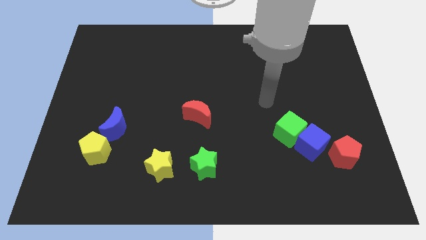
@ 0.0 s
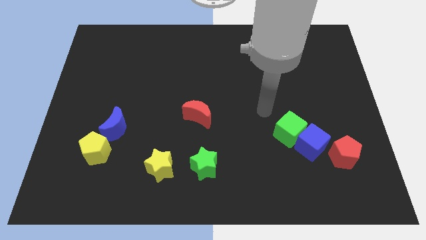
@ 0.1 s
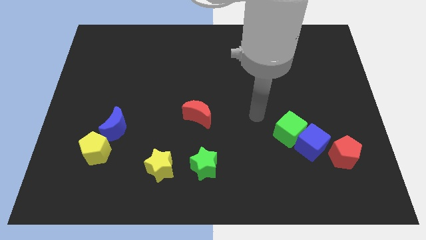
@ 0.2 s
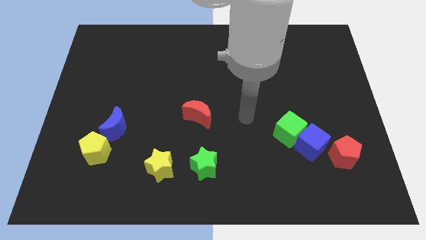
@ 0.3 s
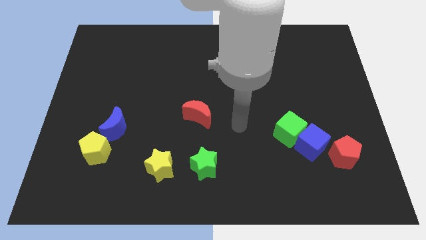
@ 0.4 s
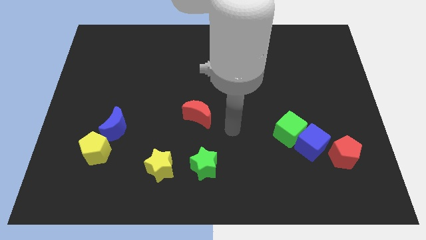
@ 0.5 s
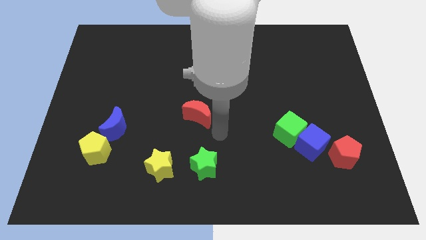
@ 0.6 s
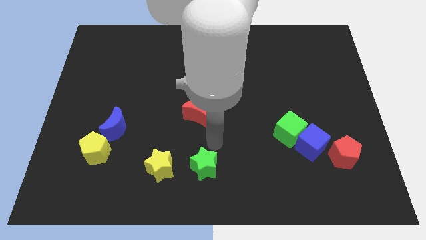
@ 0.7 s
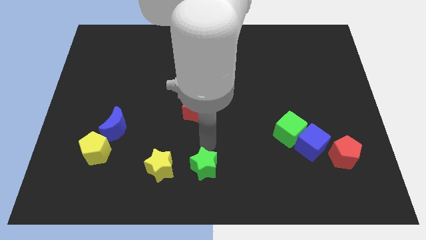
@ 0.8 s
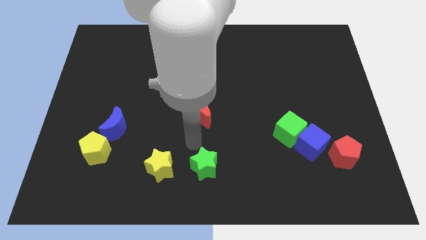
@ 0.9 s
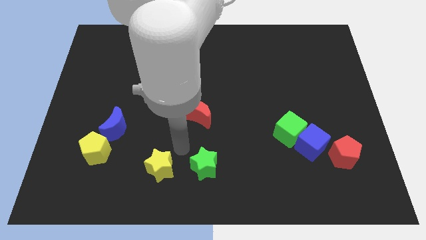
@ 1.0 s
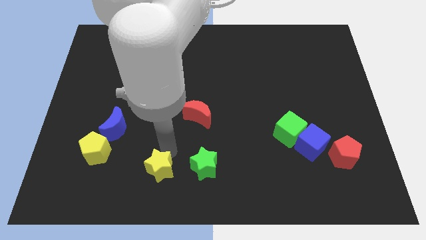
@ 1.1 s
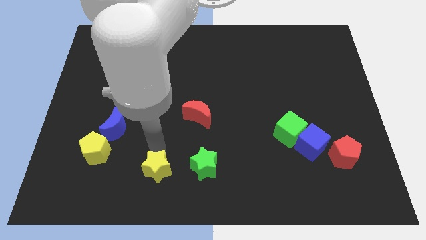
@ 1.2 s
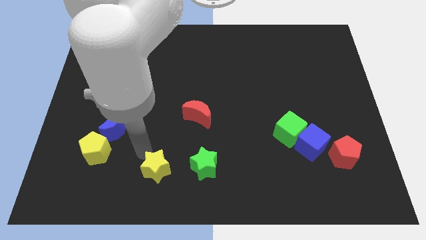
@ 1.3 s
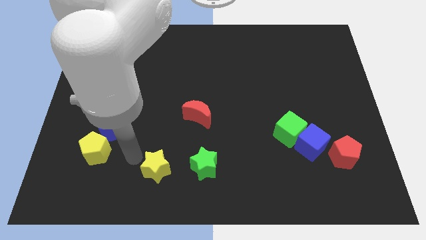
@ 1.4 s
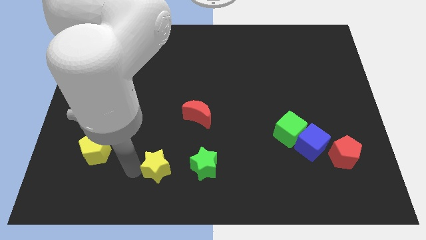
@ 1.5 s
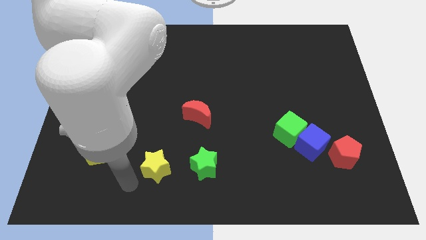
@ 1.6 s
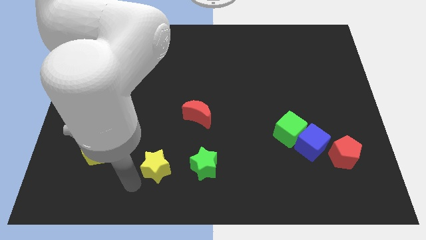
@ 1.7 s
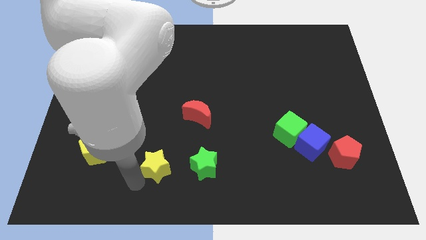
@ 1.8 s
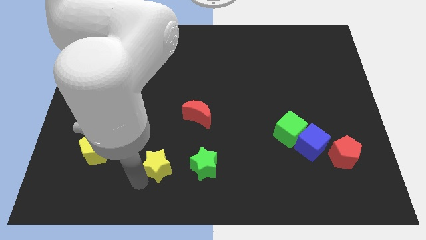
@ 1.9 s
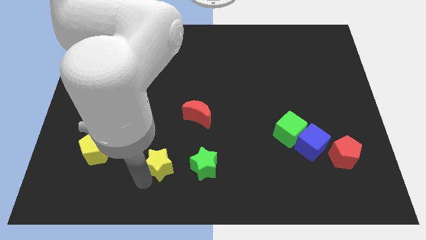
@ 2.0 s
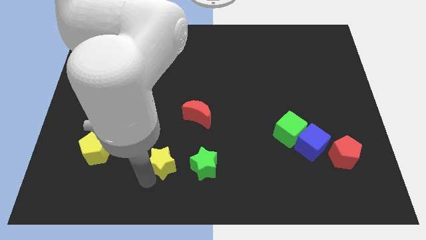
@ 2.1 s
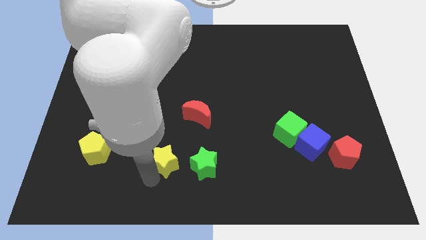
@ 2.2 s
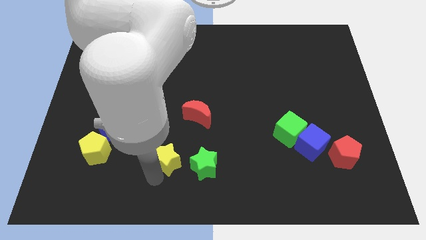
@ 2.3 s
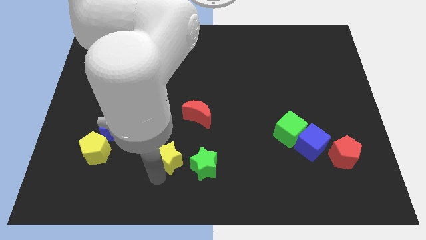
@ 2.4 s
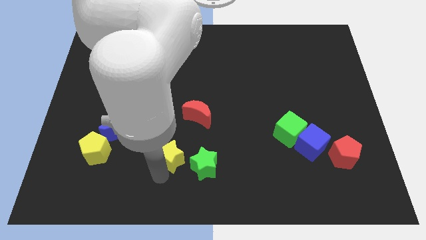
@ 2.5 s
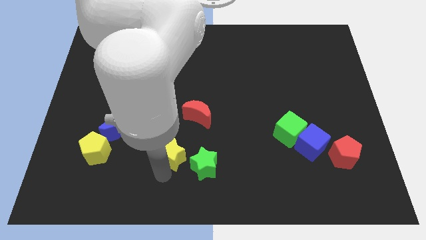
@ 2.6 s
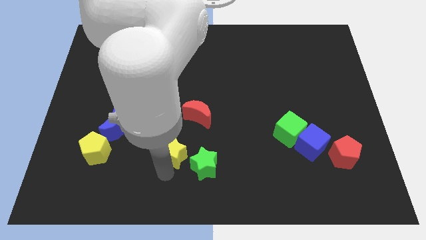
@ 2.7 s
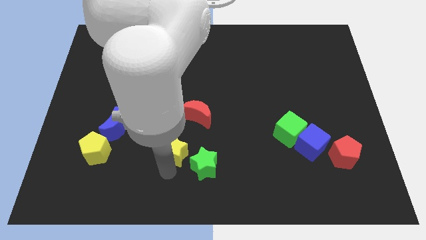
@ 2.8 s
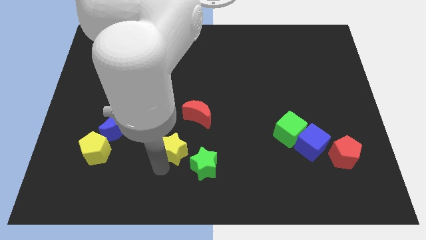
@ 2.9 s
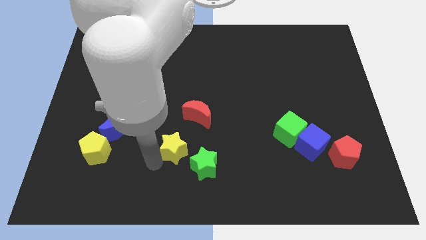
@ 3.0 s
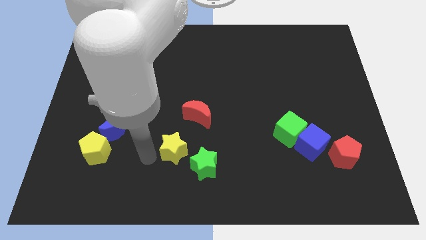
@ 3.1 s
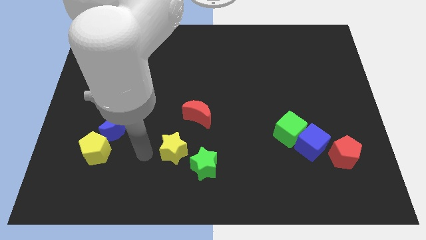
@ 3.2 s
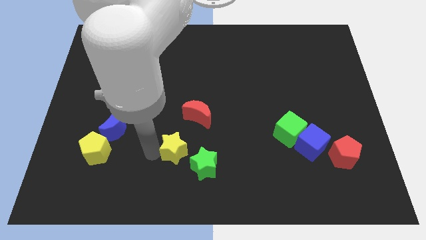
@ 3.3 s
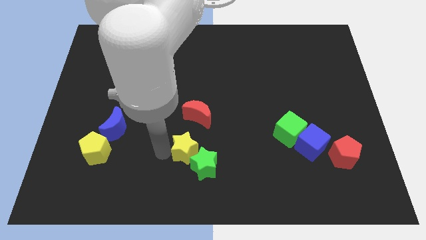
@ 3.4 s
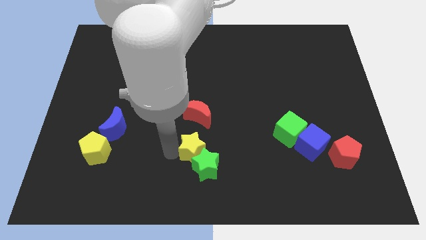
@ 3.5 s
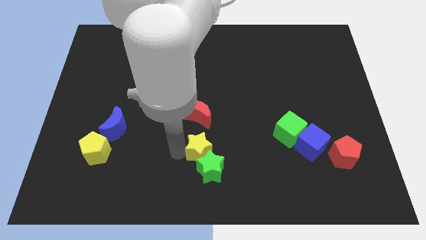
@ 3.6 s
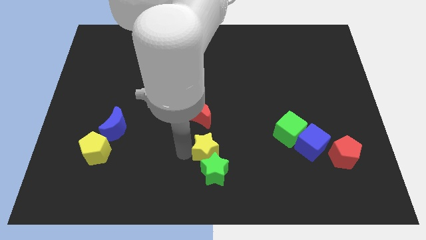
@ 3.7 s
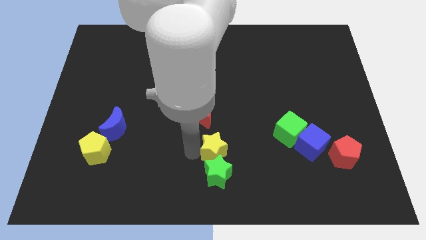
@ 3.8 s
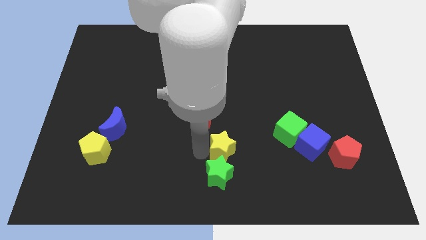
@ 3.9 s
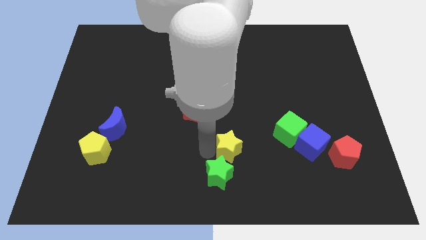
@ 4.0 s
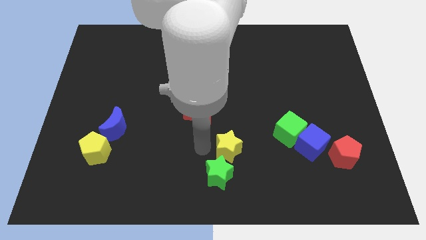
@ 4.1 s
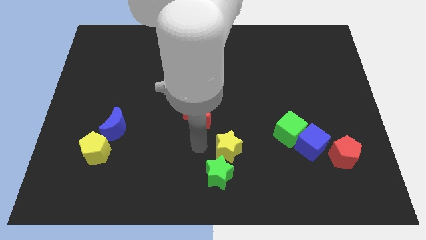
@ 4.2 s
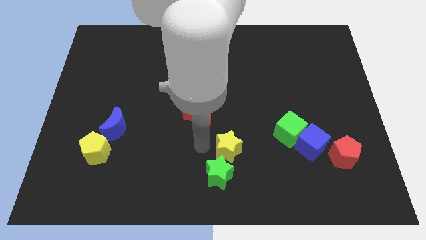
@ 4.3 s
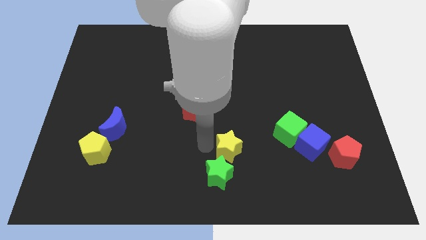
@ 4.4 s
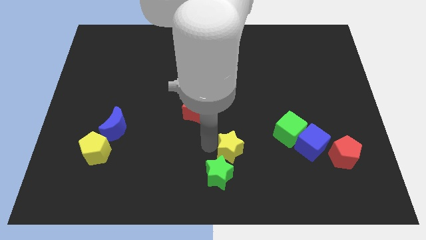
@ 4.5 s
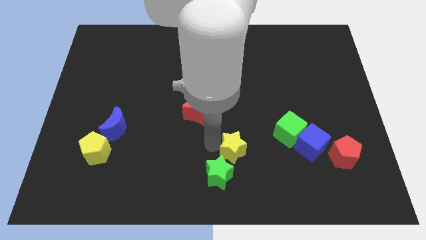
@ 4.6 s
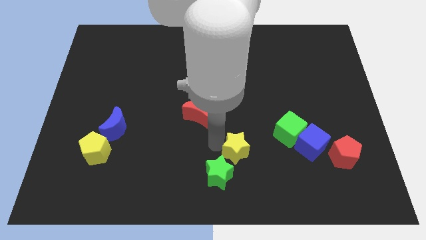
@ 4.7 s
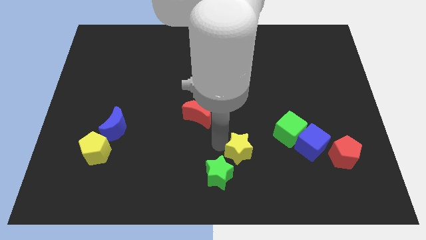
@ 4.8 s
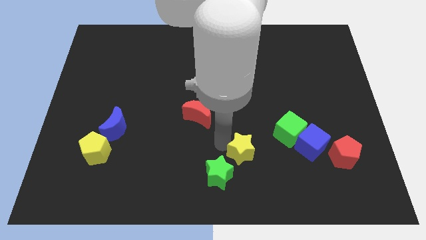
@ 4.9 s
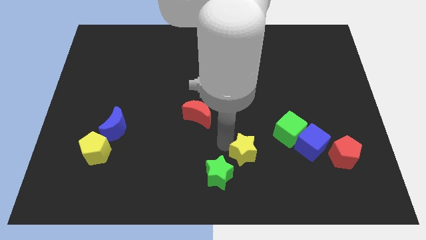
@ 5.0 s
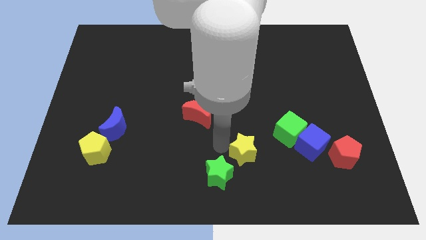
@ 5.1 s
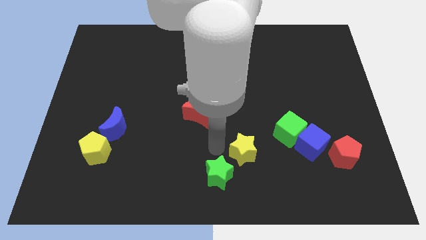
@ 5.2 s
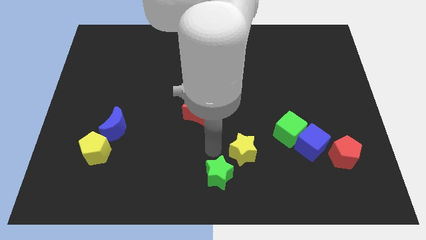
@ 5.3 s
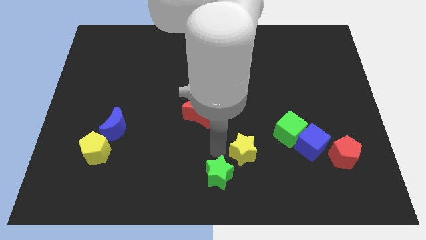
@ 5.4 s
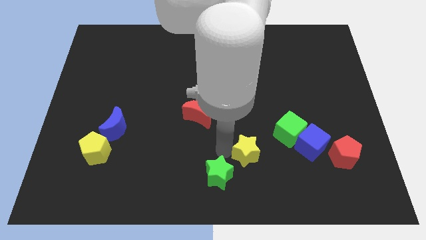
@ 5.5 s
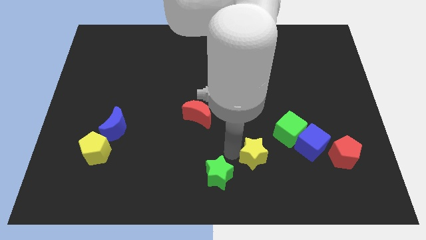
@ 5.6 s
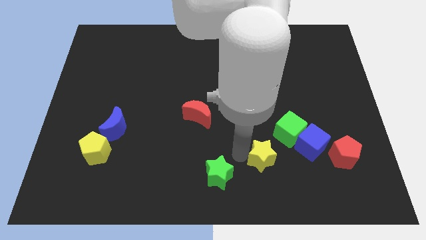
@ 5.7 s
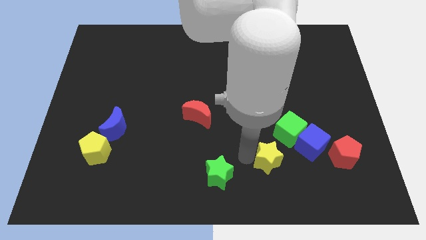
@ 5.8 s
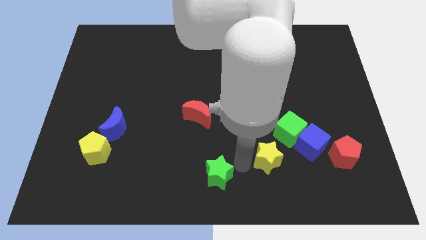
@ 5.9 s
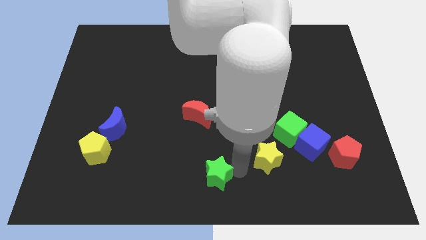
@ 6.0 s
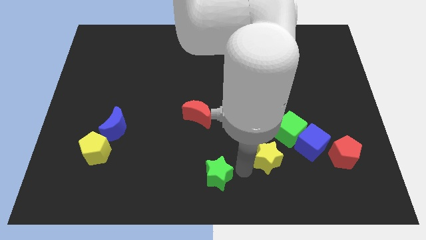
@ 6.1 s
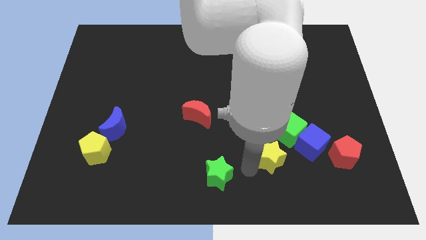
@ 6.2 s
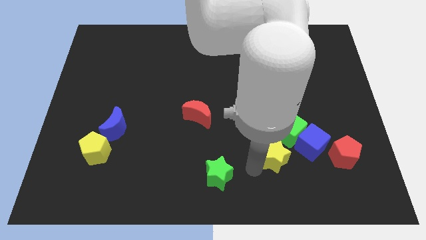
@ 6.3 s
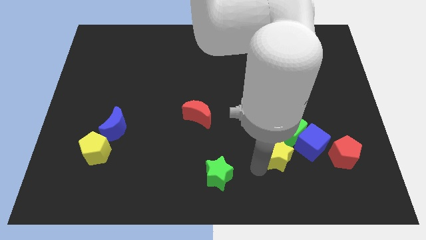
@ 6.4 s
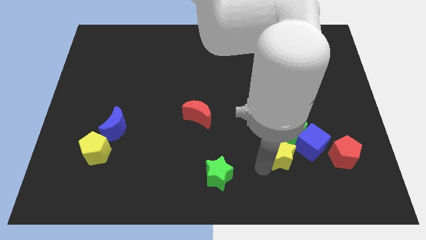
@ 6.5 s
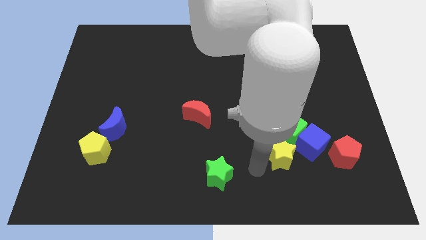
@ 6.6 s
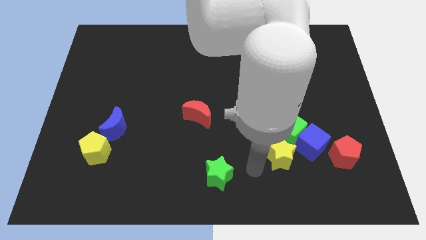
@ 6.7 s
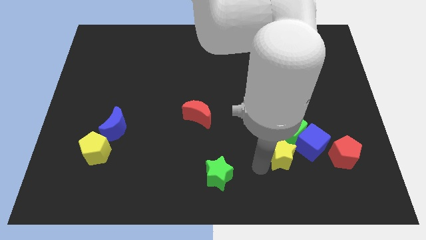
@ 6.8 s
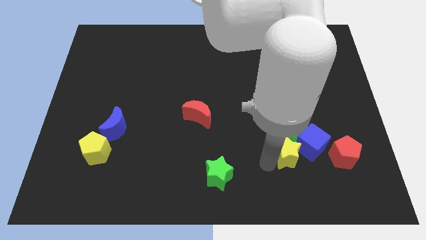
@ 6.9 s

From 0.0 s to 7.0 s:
push the yellow star next to the blue cube

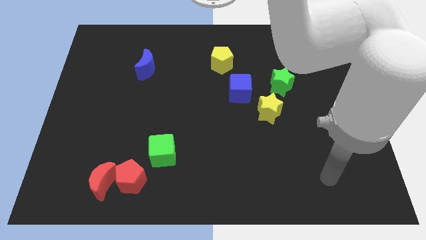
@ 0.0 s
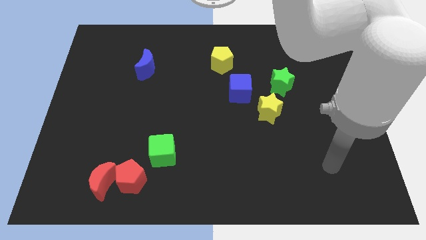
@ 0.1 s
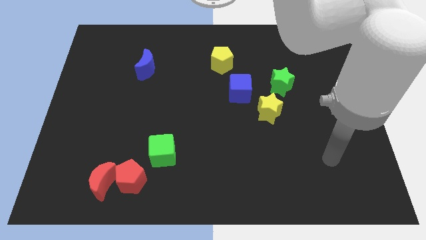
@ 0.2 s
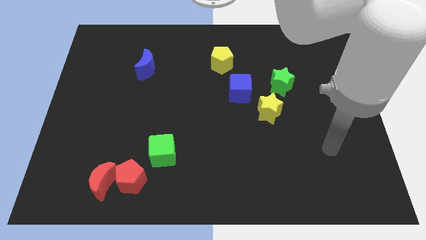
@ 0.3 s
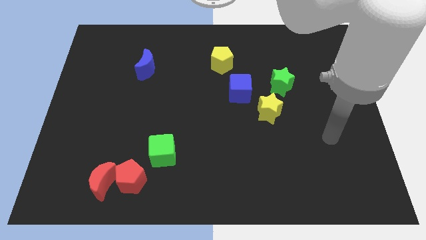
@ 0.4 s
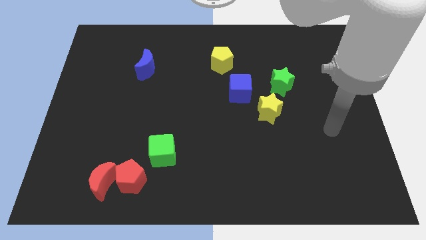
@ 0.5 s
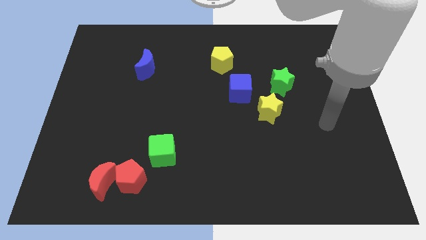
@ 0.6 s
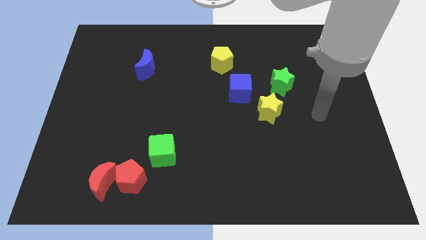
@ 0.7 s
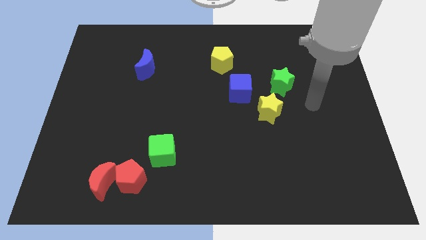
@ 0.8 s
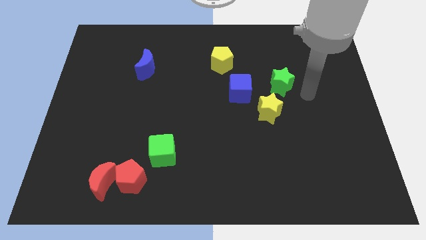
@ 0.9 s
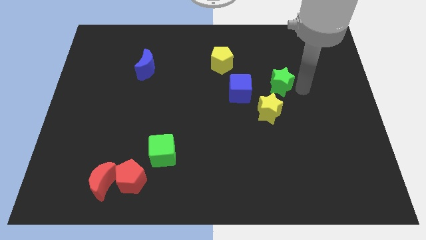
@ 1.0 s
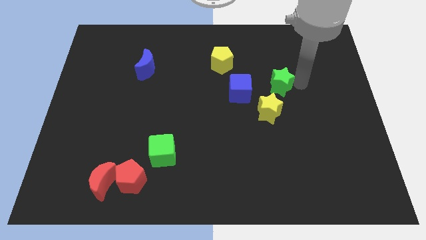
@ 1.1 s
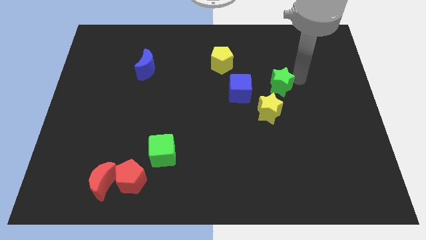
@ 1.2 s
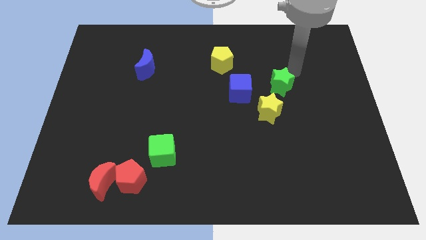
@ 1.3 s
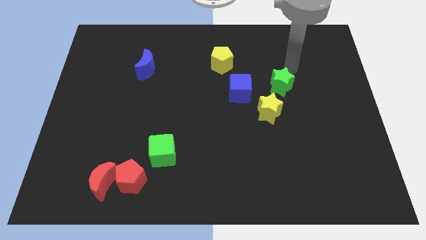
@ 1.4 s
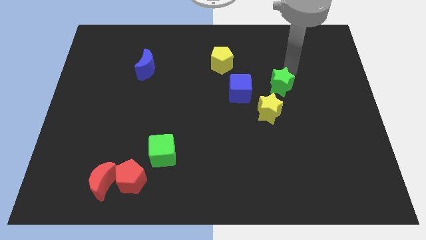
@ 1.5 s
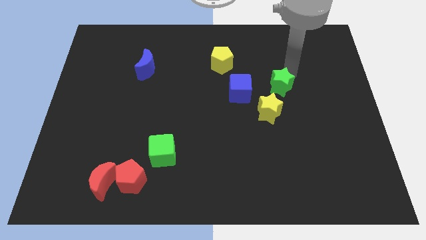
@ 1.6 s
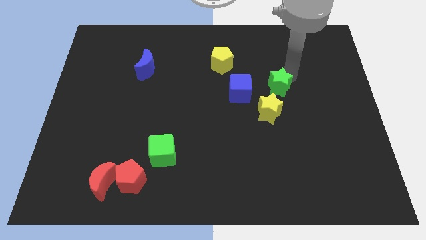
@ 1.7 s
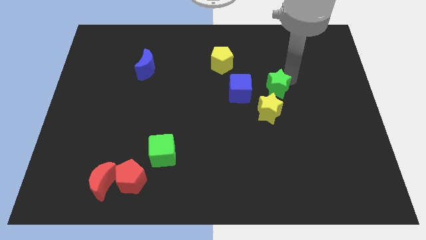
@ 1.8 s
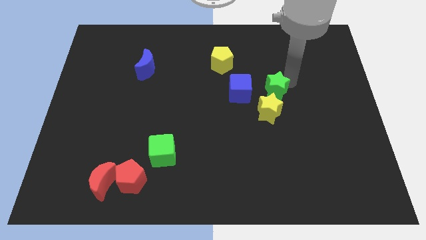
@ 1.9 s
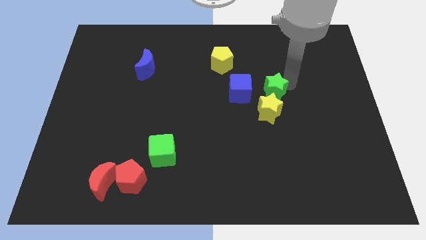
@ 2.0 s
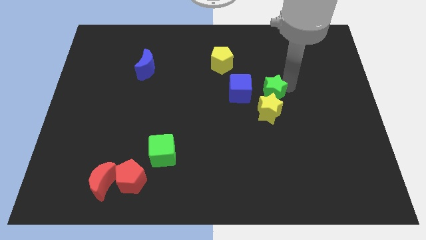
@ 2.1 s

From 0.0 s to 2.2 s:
push the green star towards the yellow star
